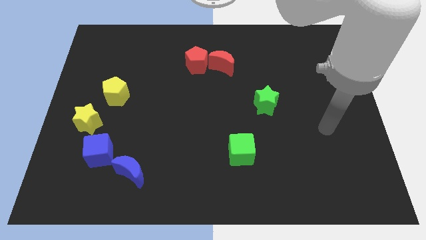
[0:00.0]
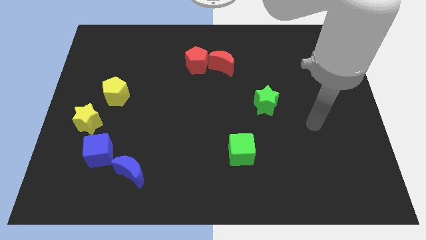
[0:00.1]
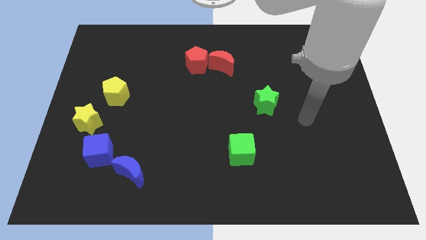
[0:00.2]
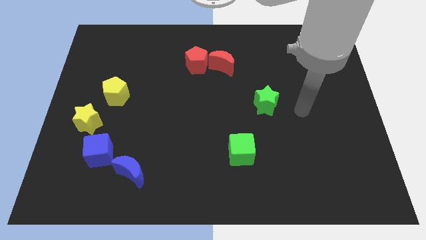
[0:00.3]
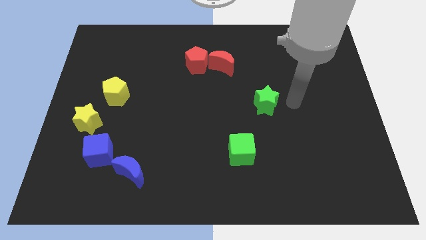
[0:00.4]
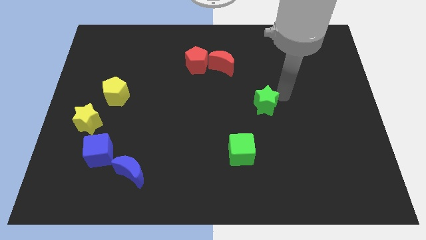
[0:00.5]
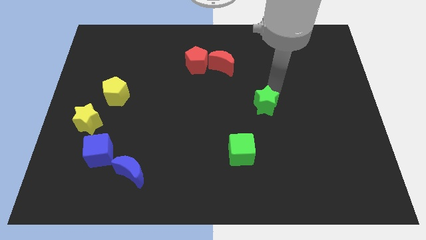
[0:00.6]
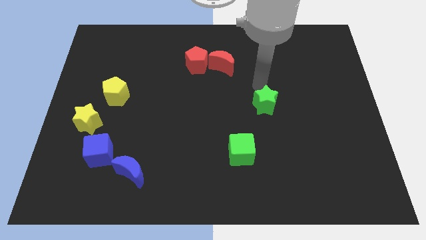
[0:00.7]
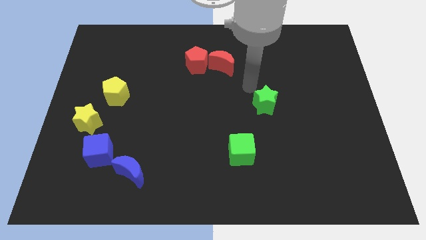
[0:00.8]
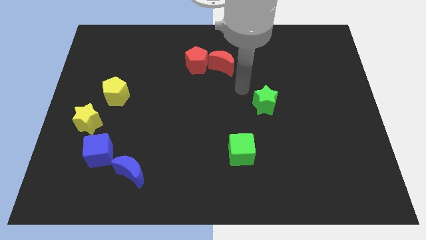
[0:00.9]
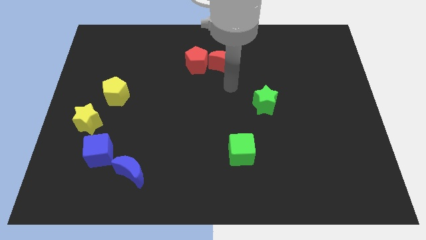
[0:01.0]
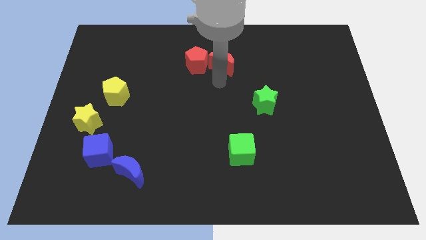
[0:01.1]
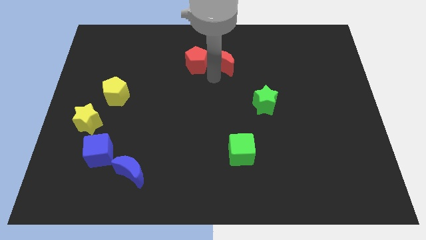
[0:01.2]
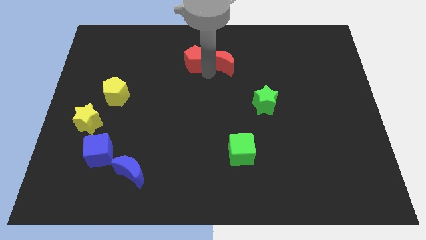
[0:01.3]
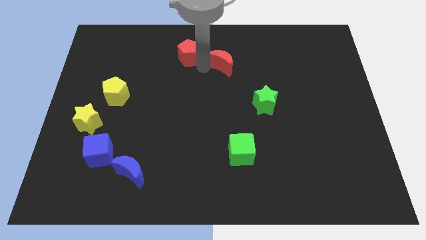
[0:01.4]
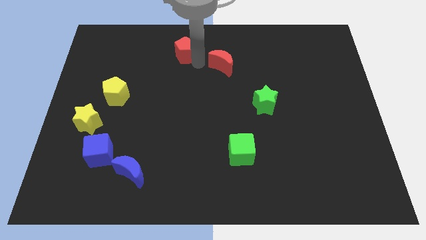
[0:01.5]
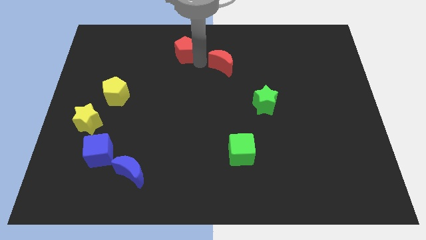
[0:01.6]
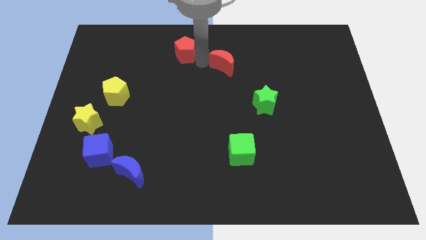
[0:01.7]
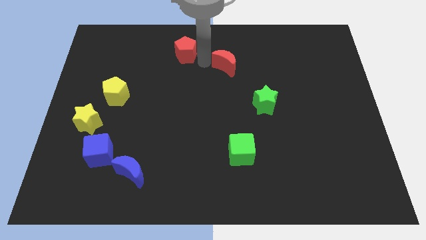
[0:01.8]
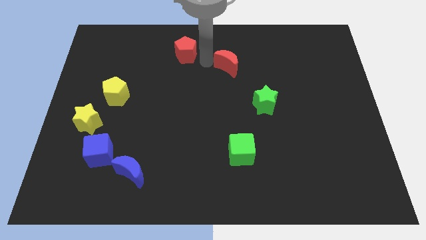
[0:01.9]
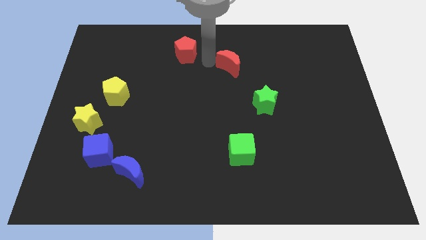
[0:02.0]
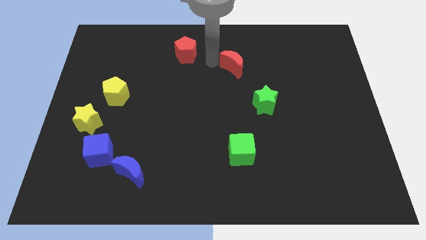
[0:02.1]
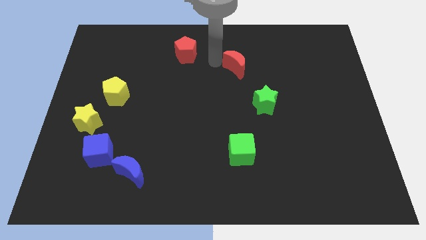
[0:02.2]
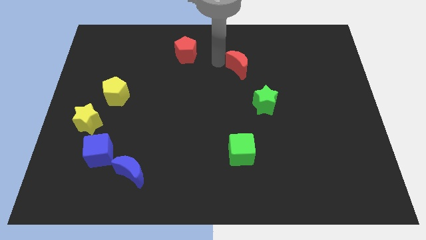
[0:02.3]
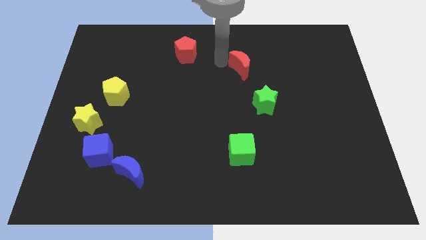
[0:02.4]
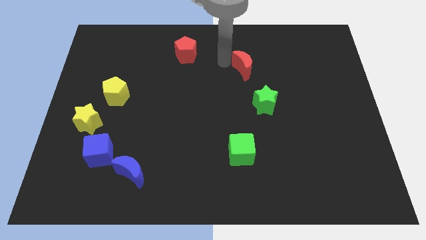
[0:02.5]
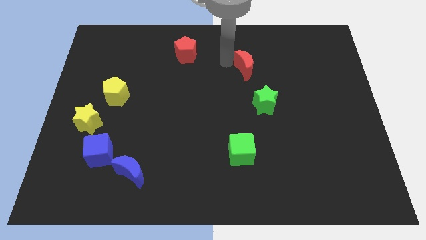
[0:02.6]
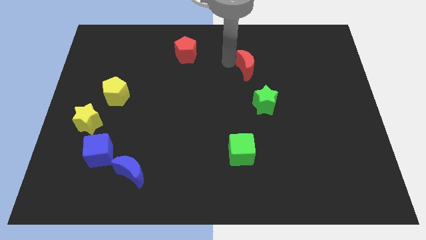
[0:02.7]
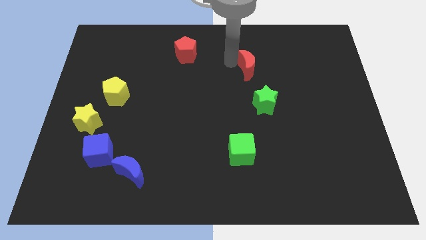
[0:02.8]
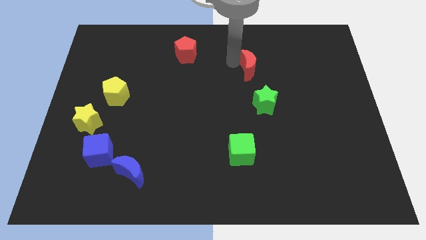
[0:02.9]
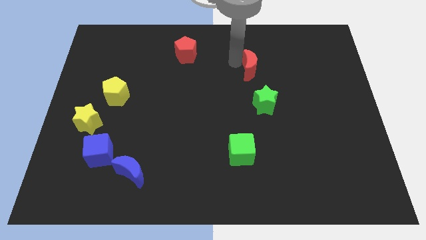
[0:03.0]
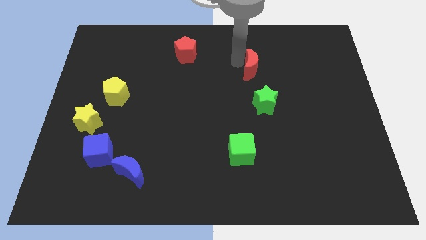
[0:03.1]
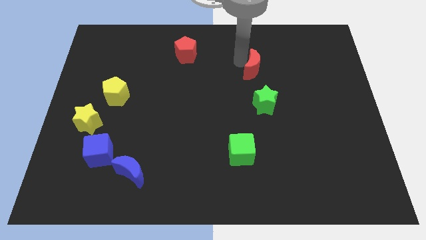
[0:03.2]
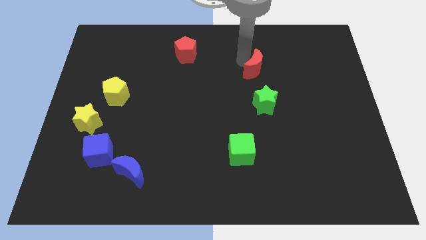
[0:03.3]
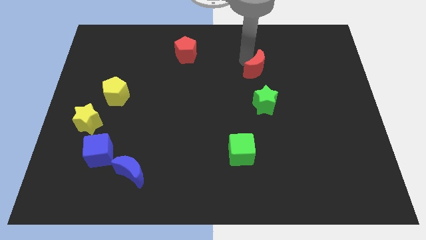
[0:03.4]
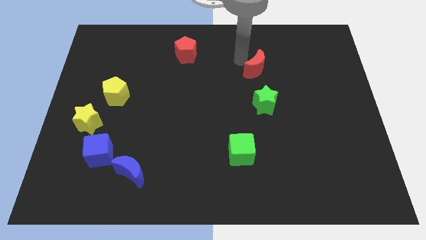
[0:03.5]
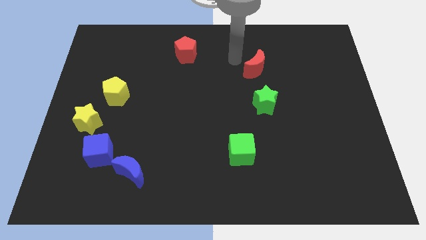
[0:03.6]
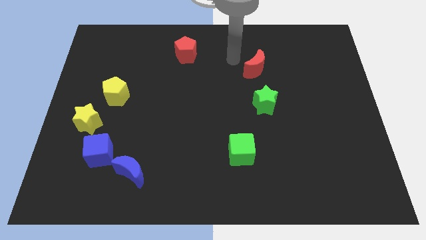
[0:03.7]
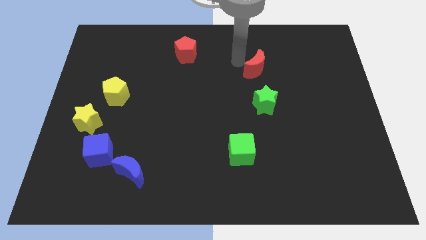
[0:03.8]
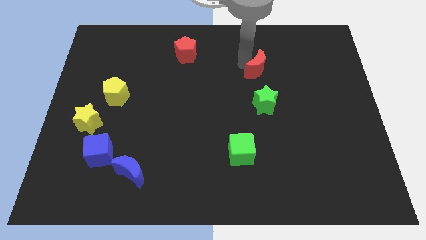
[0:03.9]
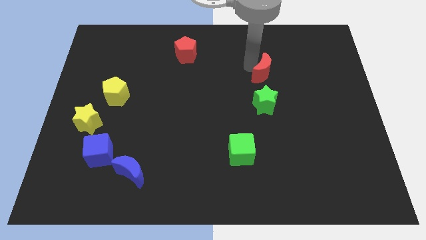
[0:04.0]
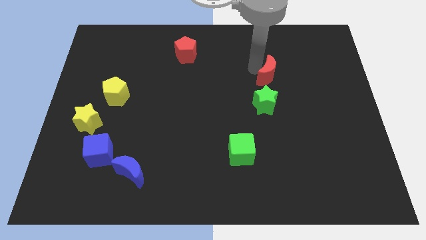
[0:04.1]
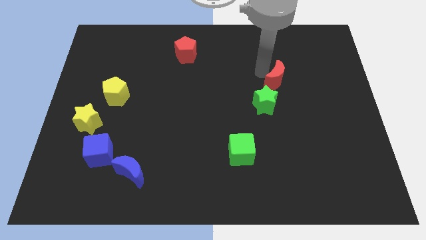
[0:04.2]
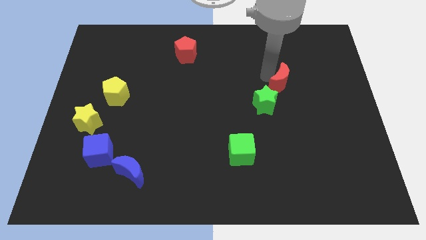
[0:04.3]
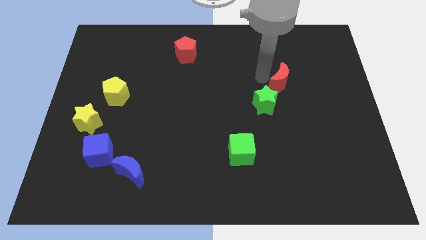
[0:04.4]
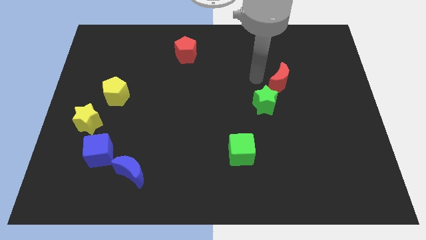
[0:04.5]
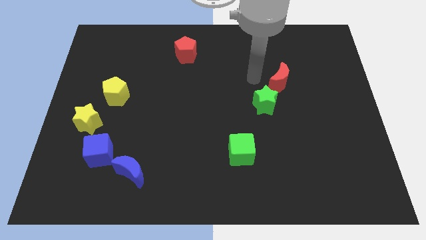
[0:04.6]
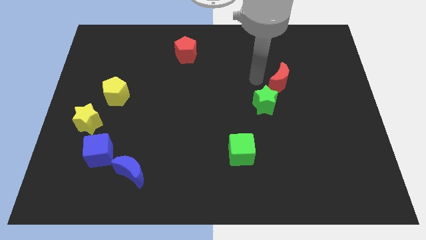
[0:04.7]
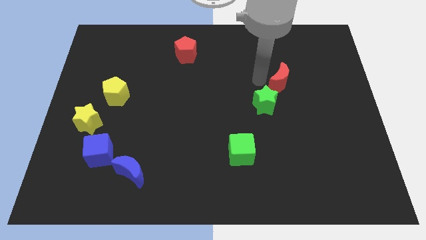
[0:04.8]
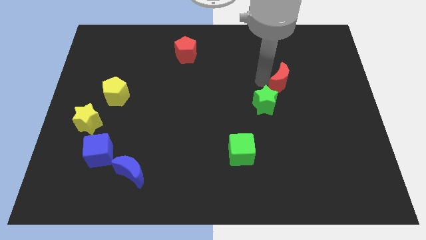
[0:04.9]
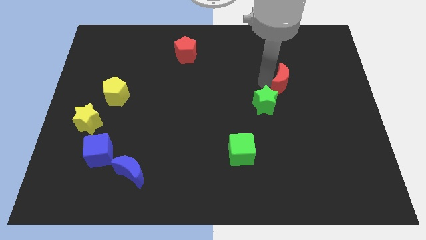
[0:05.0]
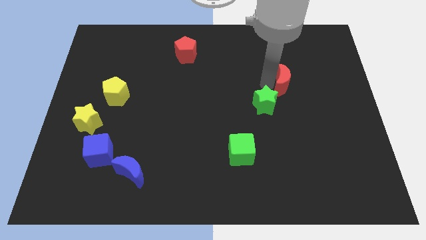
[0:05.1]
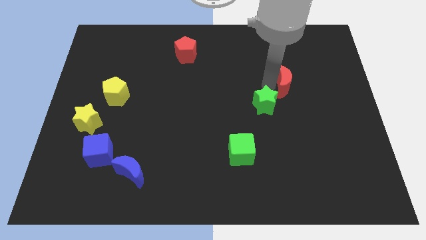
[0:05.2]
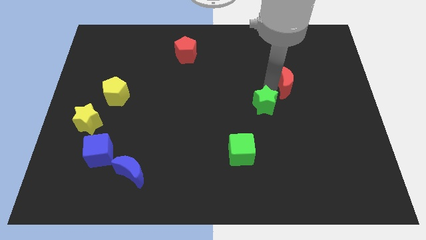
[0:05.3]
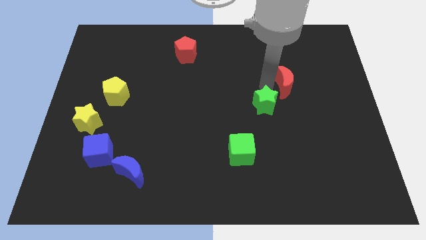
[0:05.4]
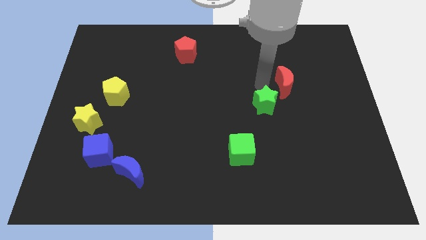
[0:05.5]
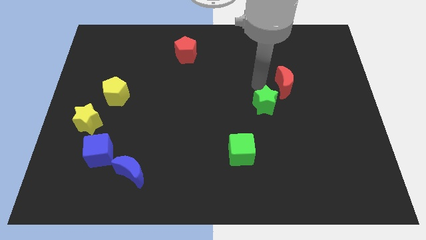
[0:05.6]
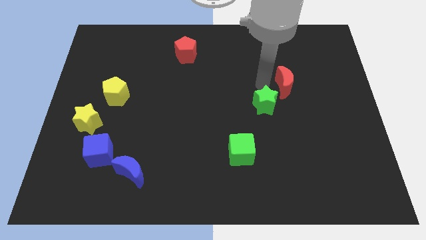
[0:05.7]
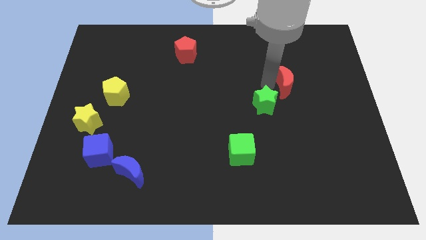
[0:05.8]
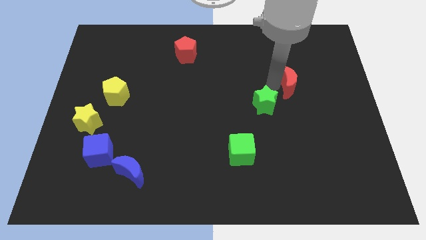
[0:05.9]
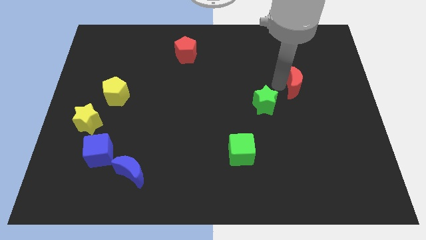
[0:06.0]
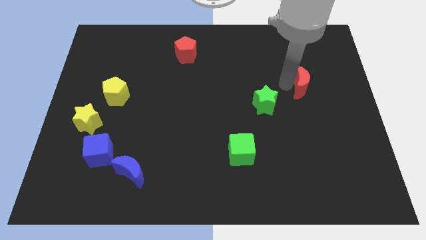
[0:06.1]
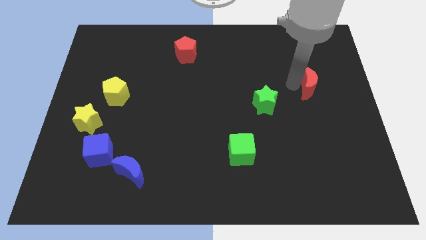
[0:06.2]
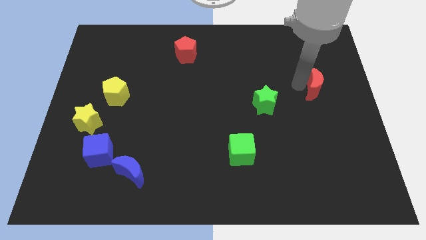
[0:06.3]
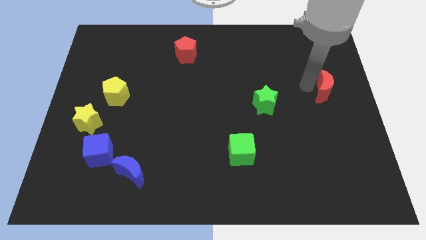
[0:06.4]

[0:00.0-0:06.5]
put the red moon to the right side
